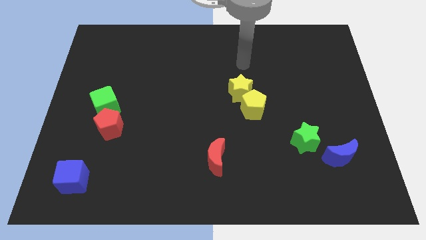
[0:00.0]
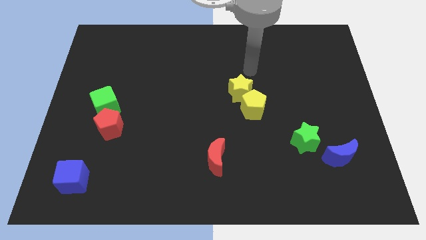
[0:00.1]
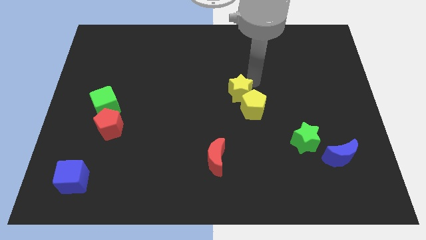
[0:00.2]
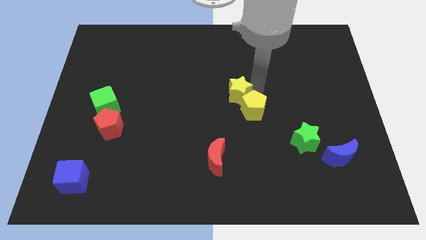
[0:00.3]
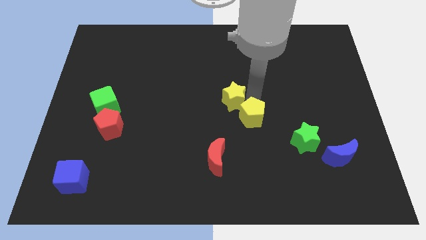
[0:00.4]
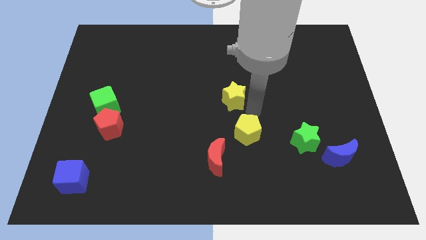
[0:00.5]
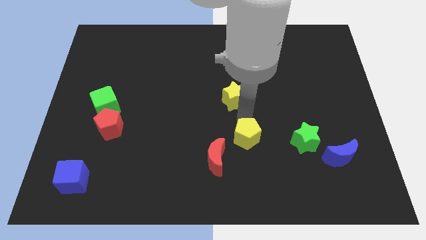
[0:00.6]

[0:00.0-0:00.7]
move the yellow star away from the yellow pentagon

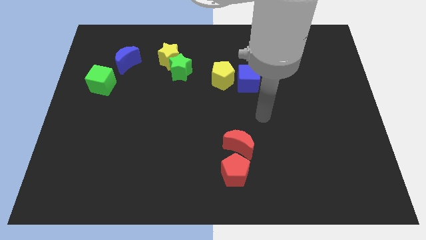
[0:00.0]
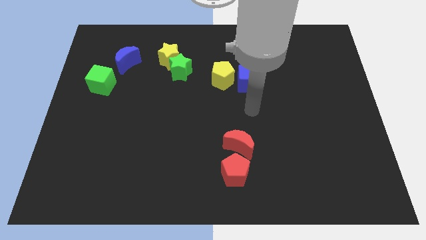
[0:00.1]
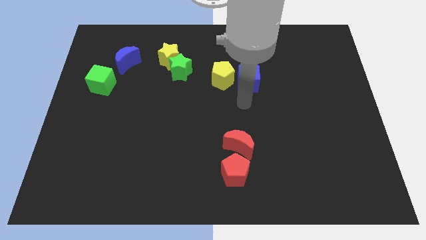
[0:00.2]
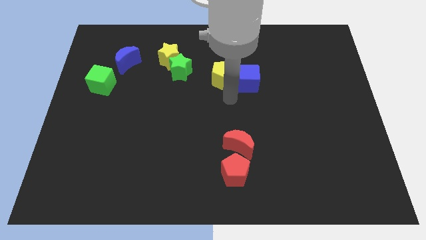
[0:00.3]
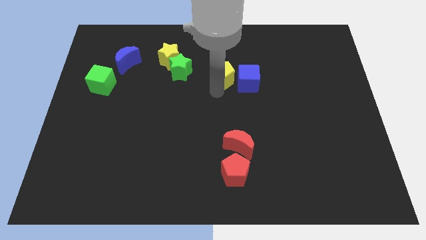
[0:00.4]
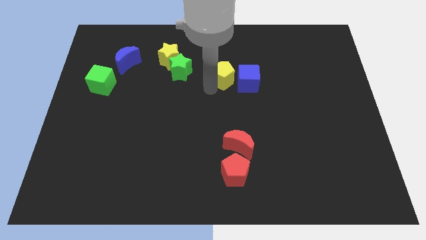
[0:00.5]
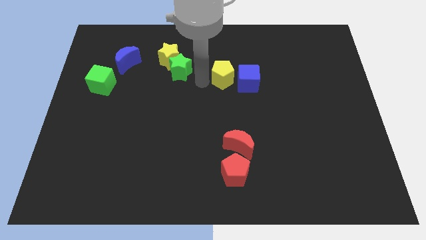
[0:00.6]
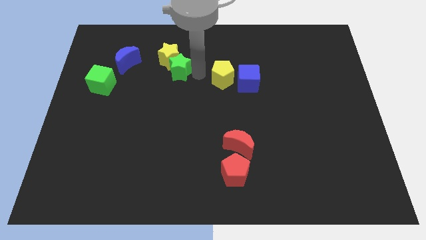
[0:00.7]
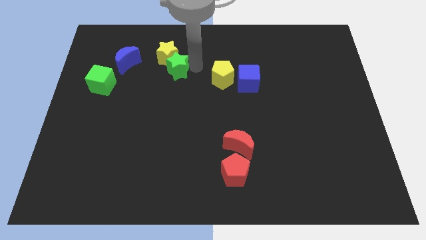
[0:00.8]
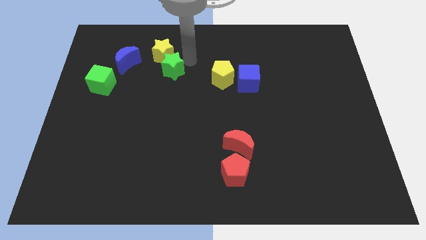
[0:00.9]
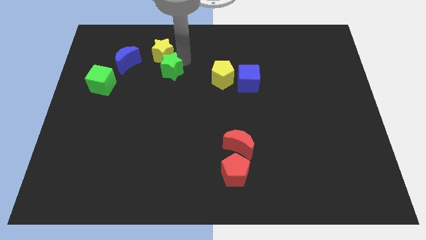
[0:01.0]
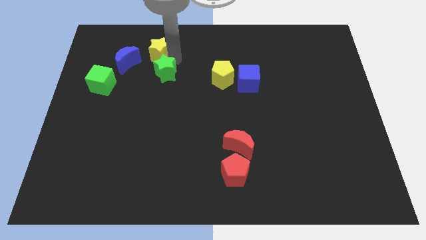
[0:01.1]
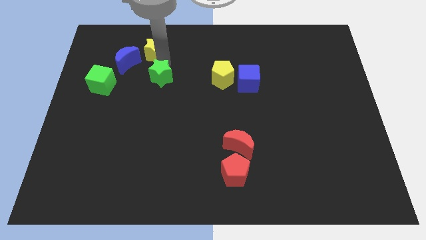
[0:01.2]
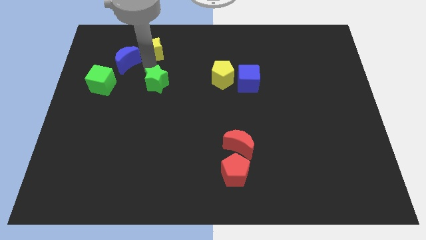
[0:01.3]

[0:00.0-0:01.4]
move the green star away from the yellow star

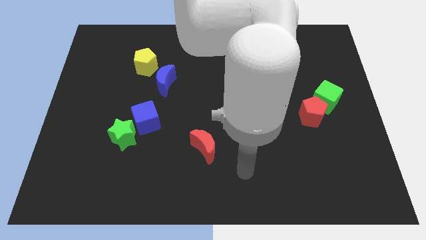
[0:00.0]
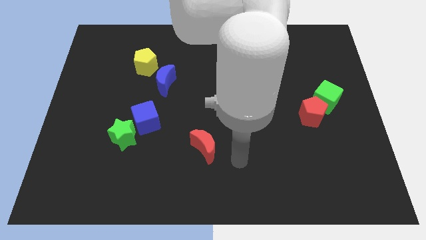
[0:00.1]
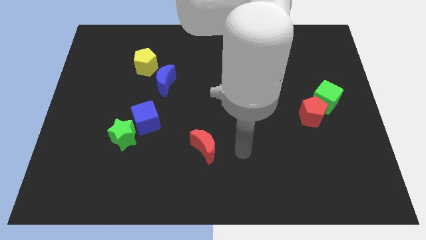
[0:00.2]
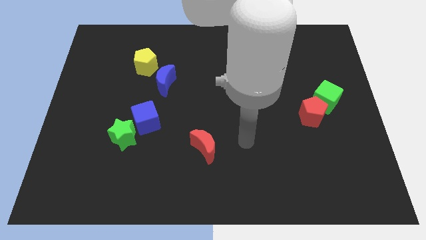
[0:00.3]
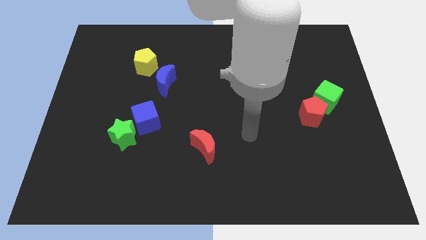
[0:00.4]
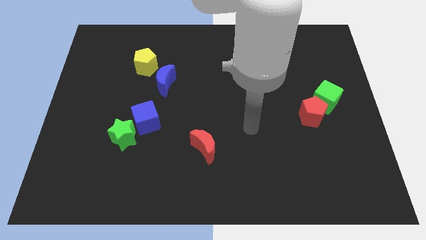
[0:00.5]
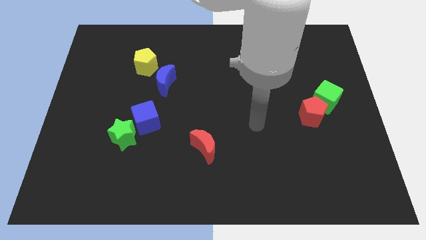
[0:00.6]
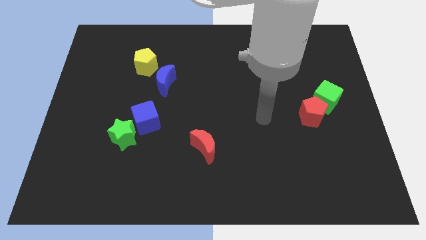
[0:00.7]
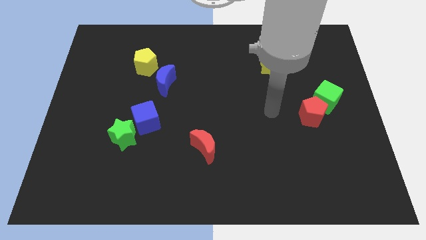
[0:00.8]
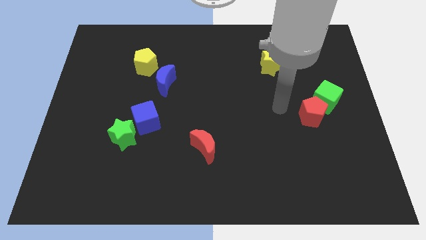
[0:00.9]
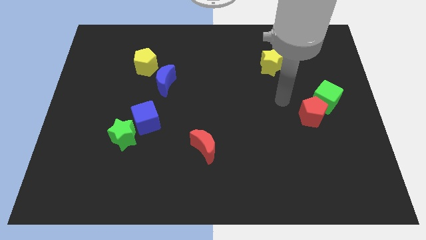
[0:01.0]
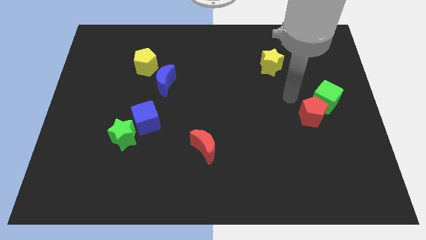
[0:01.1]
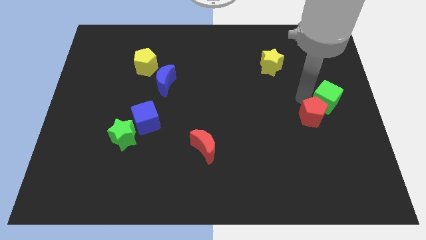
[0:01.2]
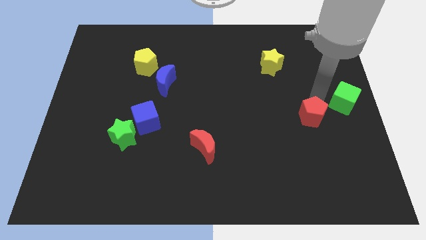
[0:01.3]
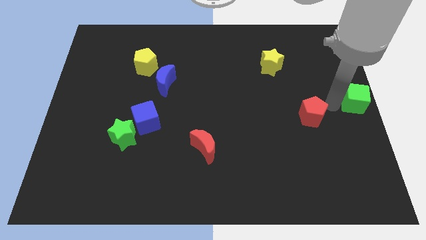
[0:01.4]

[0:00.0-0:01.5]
separate the red pentagon from the green cube

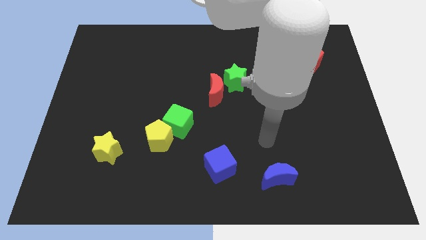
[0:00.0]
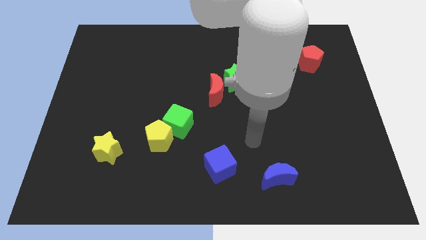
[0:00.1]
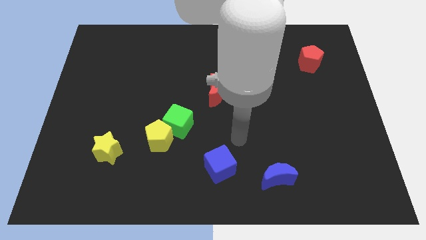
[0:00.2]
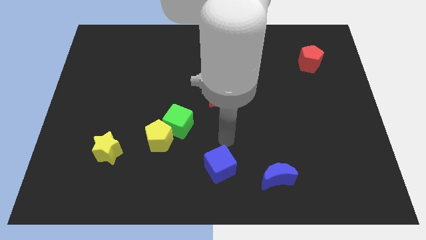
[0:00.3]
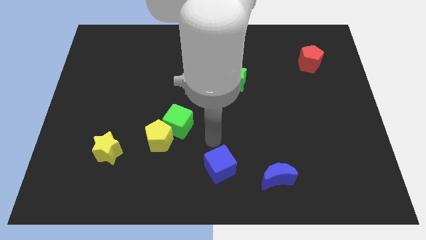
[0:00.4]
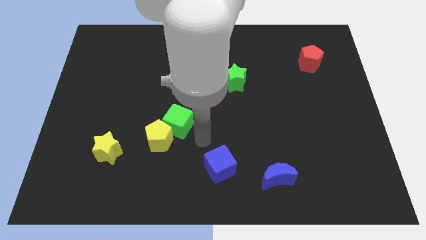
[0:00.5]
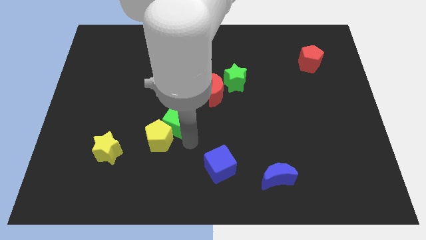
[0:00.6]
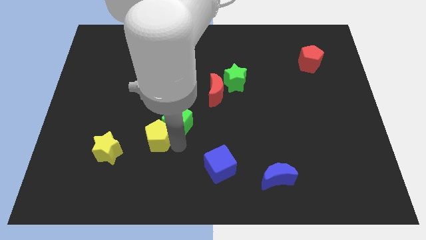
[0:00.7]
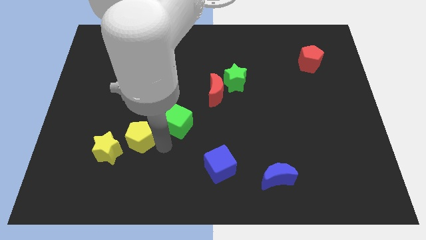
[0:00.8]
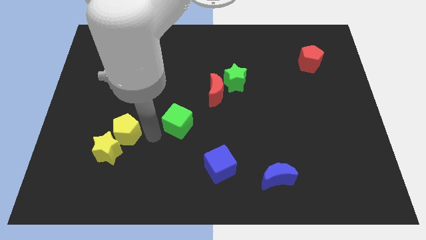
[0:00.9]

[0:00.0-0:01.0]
pull the green cube apart from the yellow pentagon

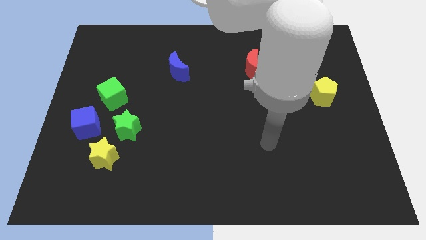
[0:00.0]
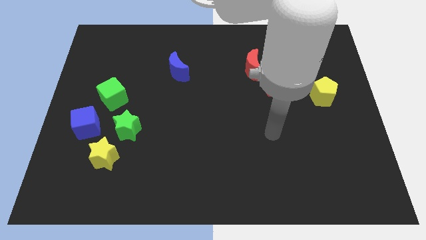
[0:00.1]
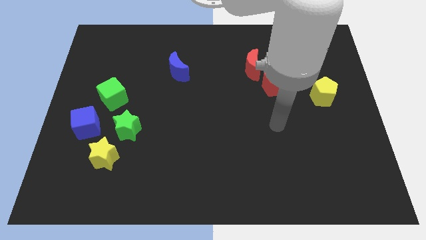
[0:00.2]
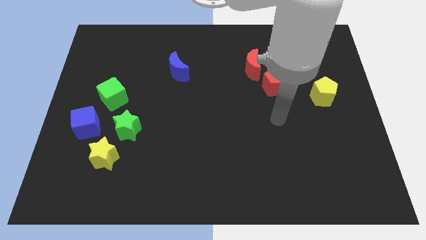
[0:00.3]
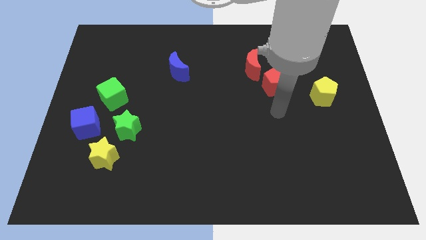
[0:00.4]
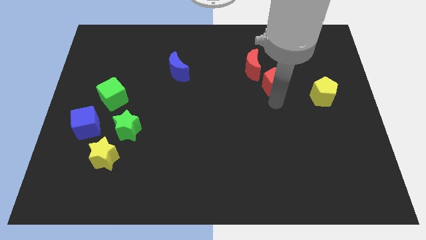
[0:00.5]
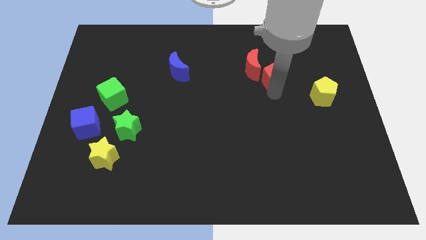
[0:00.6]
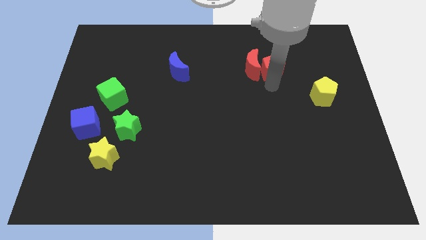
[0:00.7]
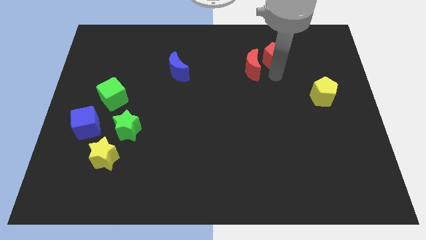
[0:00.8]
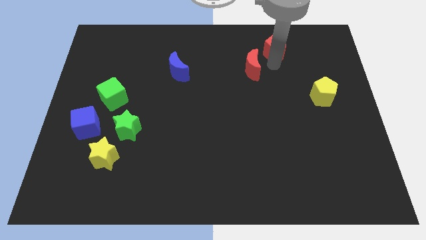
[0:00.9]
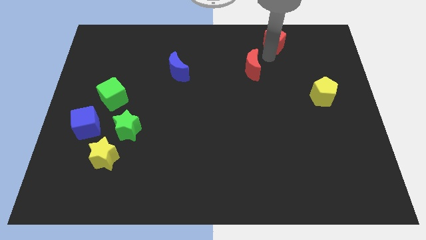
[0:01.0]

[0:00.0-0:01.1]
separate the red moon from the red pentagon

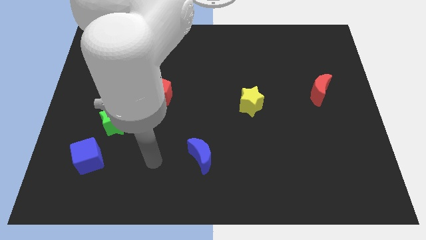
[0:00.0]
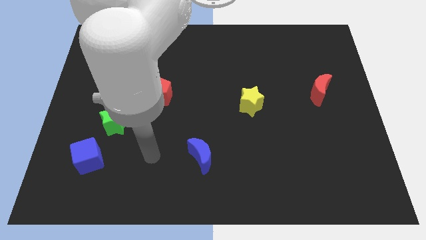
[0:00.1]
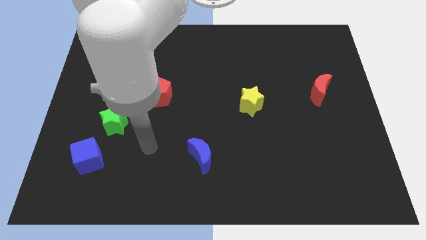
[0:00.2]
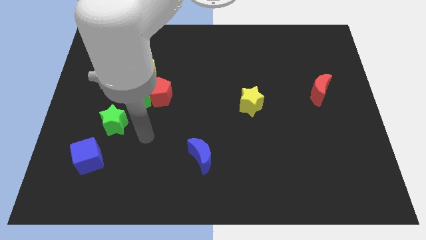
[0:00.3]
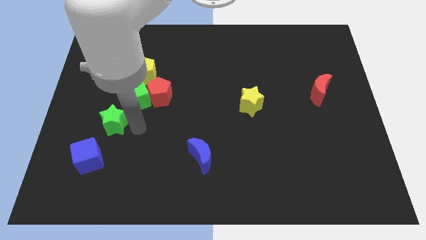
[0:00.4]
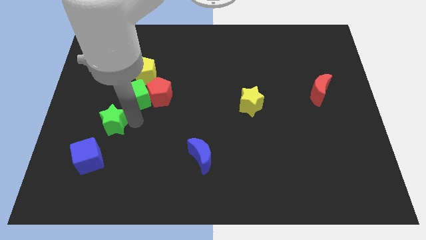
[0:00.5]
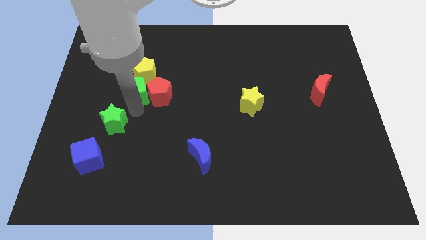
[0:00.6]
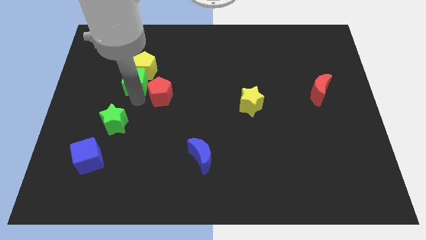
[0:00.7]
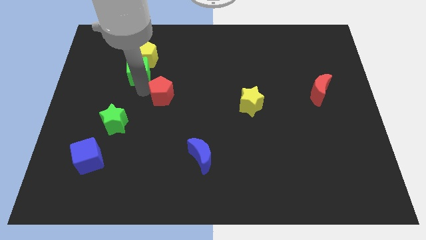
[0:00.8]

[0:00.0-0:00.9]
separate the red pentagon from the green cube and yellow pentagon

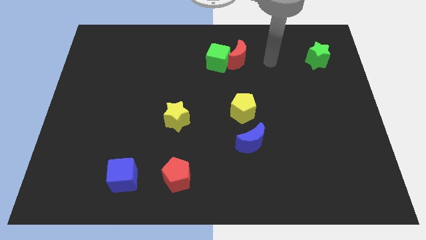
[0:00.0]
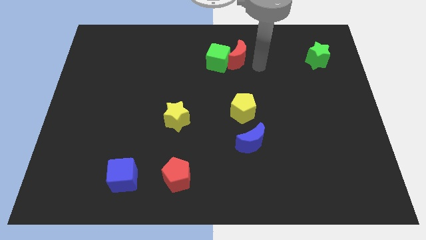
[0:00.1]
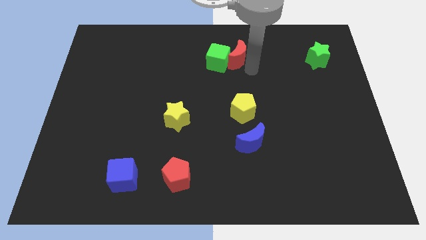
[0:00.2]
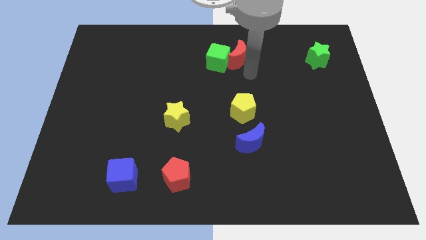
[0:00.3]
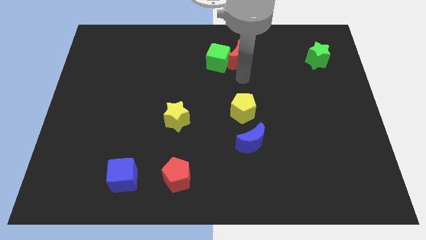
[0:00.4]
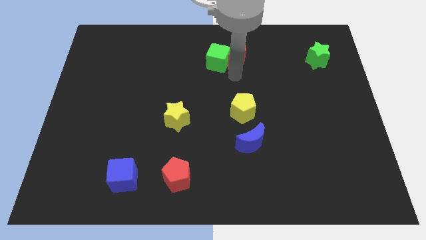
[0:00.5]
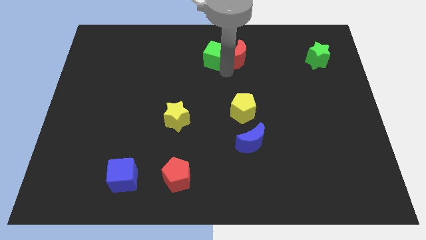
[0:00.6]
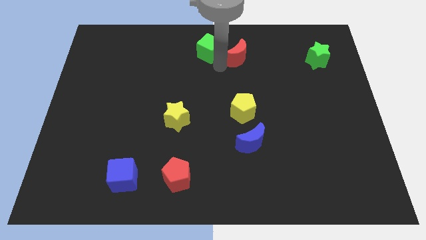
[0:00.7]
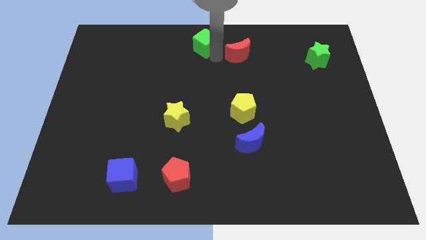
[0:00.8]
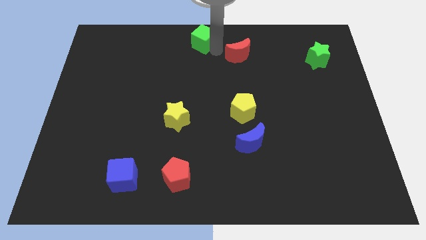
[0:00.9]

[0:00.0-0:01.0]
separate the red moon from the green cube

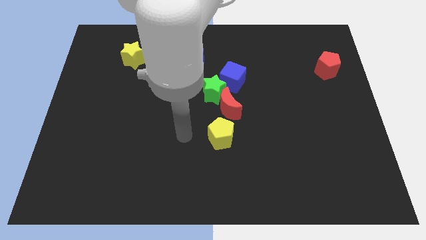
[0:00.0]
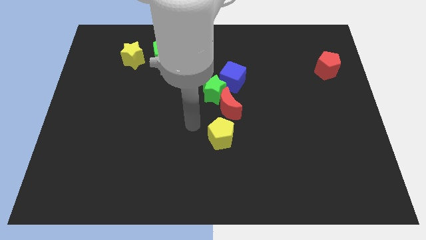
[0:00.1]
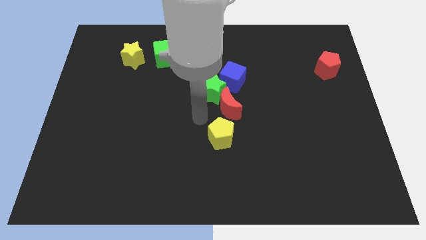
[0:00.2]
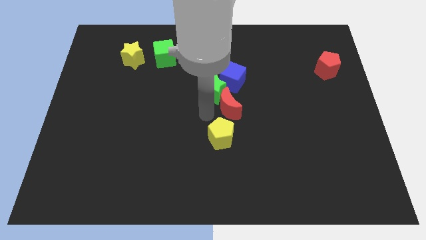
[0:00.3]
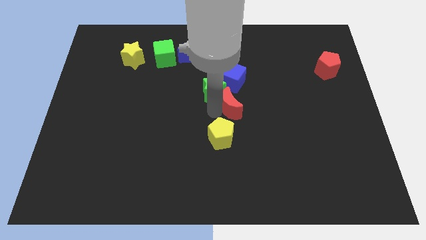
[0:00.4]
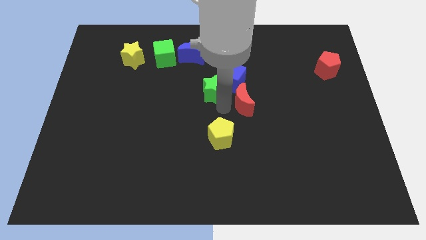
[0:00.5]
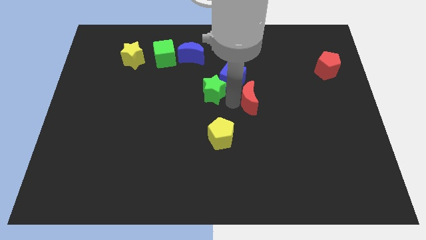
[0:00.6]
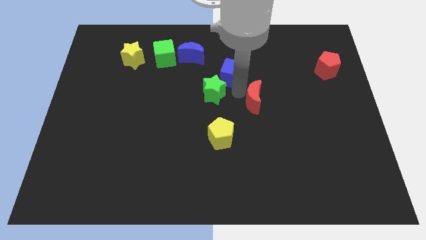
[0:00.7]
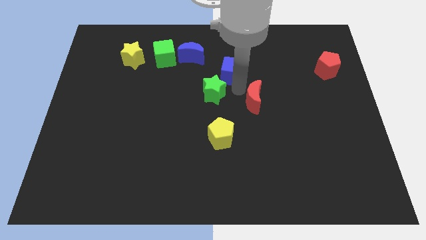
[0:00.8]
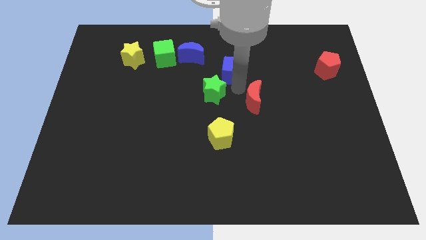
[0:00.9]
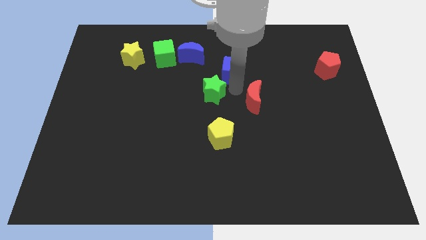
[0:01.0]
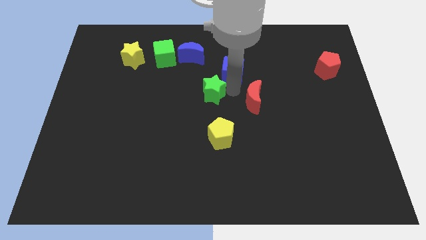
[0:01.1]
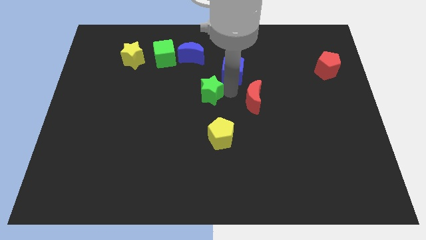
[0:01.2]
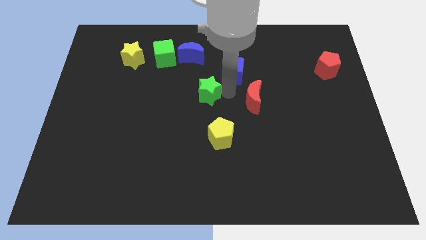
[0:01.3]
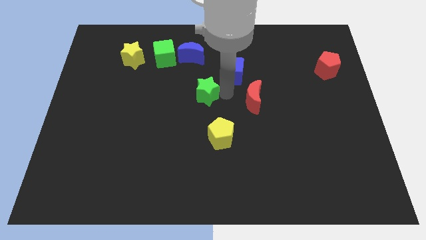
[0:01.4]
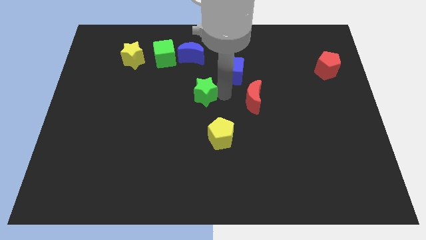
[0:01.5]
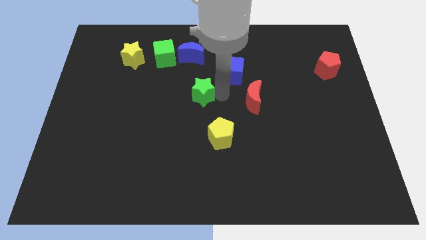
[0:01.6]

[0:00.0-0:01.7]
separate the green star from the red moon and blue cube

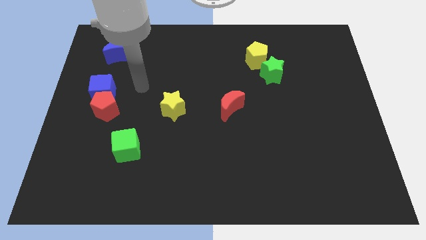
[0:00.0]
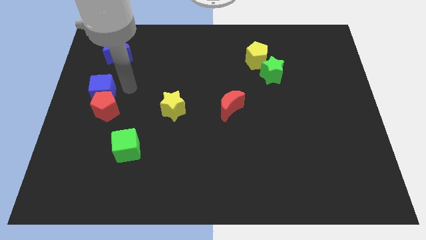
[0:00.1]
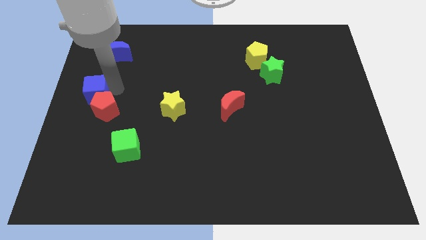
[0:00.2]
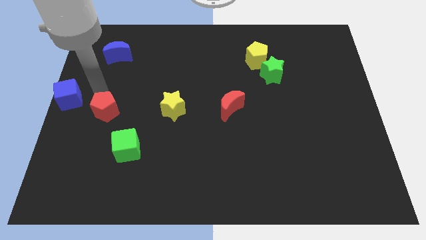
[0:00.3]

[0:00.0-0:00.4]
pull the red pentagon apart from the blue cube
